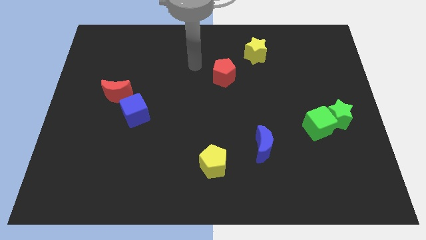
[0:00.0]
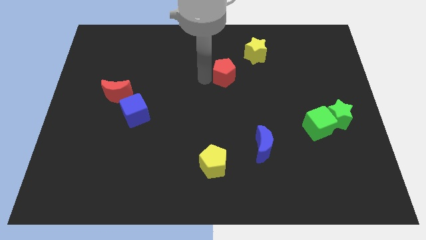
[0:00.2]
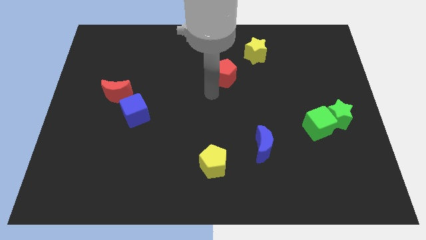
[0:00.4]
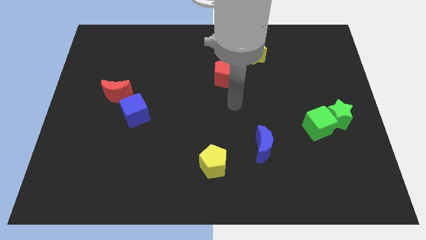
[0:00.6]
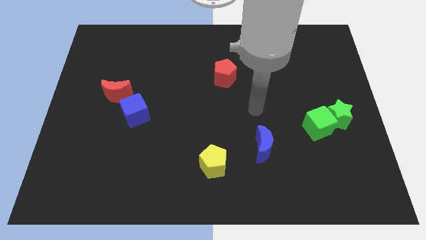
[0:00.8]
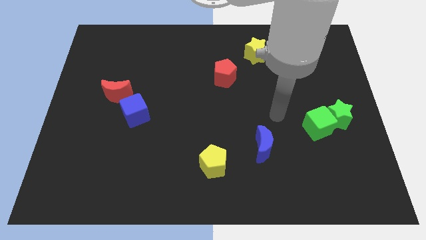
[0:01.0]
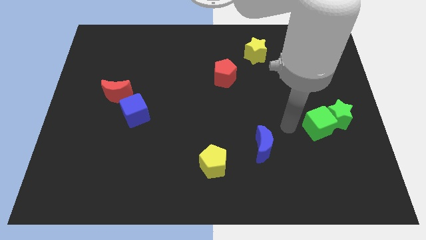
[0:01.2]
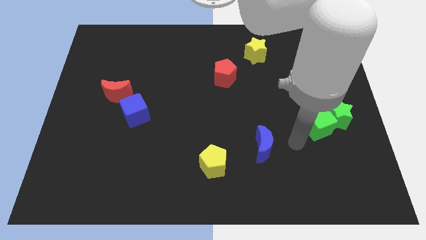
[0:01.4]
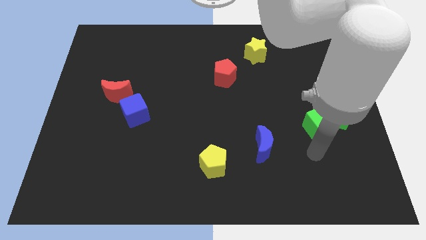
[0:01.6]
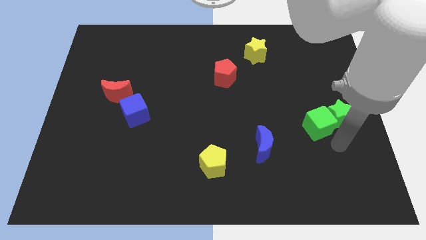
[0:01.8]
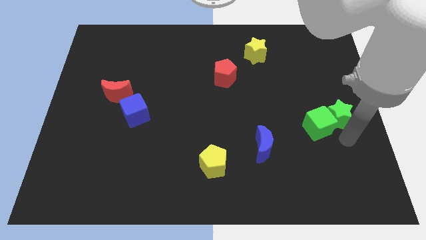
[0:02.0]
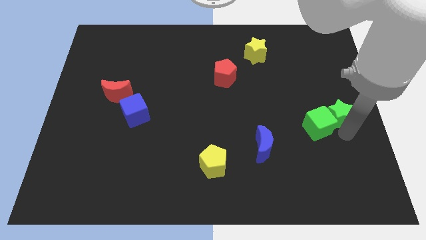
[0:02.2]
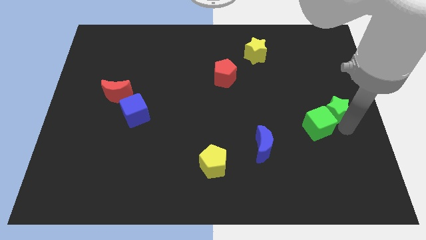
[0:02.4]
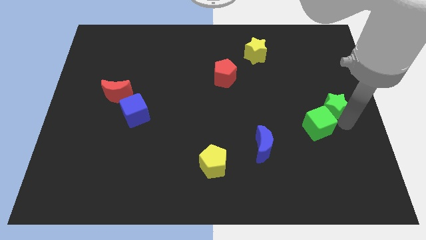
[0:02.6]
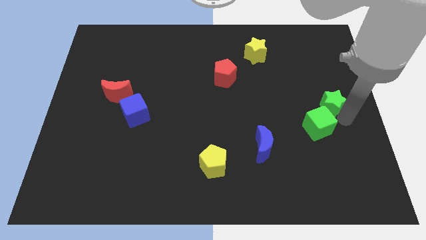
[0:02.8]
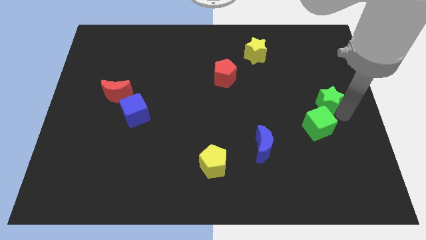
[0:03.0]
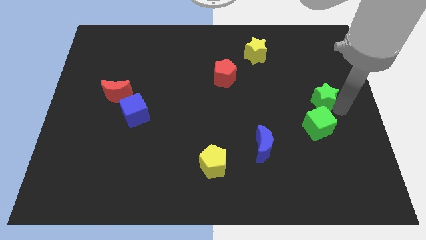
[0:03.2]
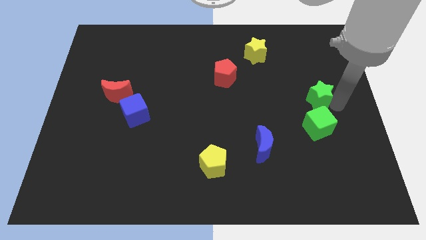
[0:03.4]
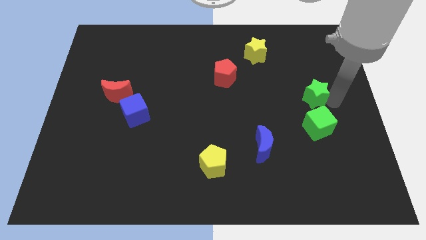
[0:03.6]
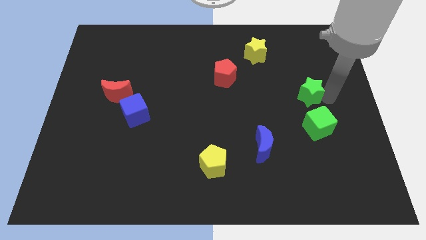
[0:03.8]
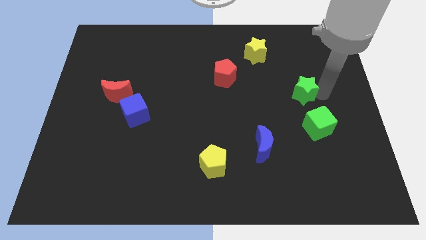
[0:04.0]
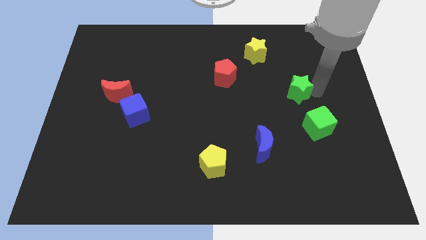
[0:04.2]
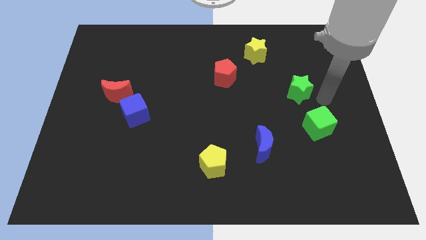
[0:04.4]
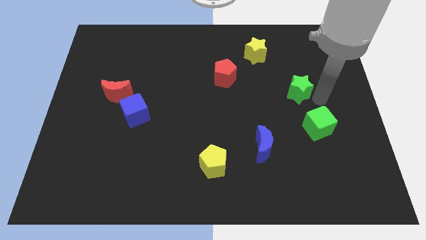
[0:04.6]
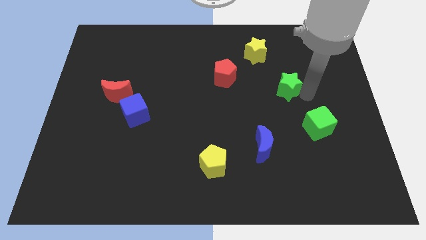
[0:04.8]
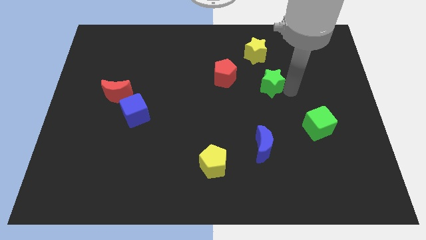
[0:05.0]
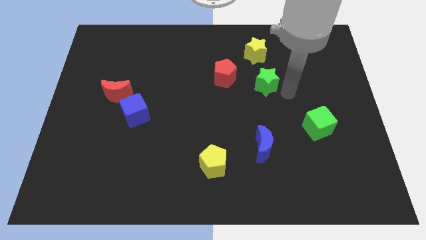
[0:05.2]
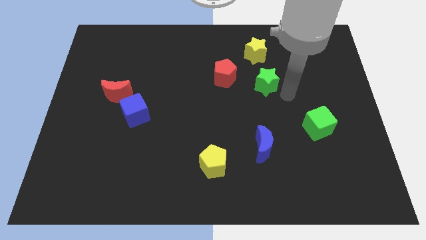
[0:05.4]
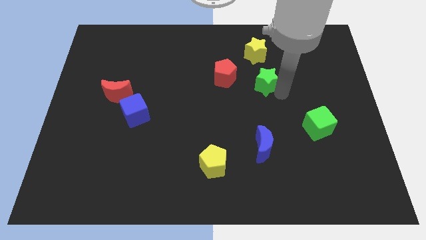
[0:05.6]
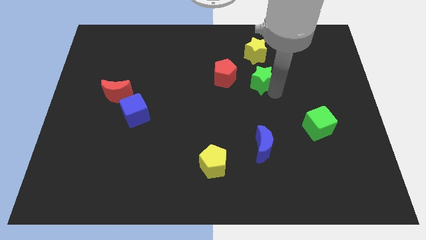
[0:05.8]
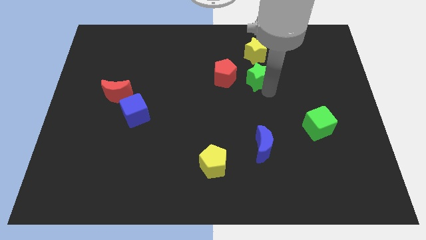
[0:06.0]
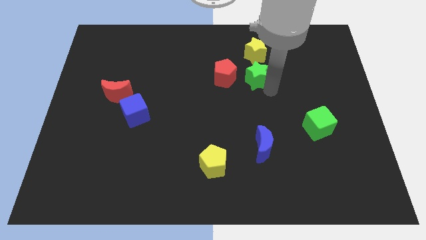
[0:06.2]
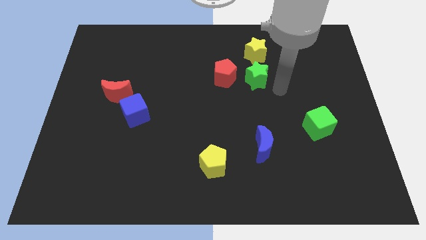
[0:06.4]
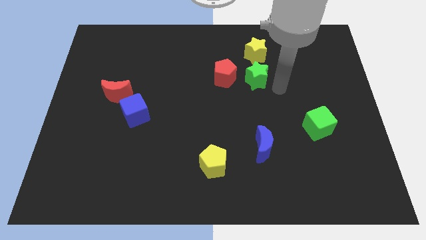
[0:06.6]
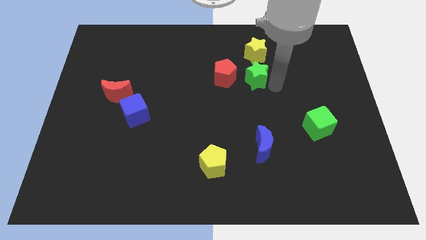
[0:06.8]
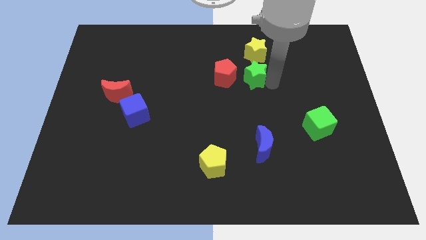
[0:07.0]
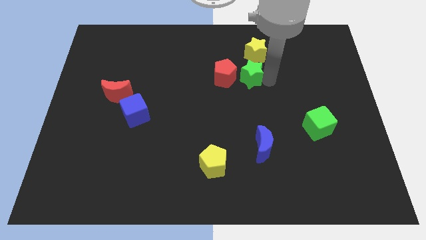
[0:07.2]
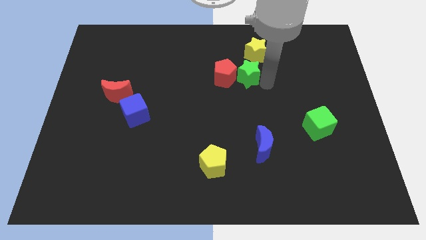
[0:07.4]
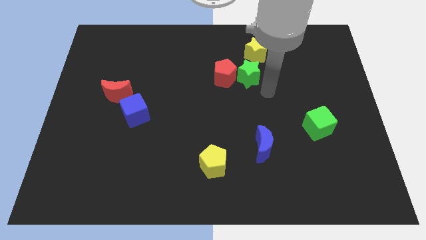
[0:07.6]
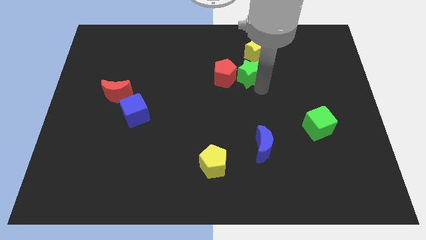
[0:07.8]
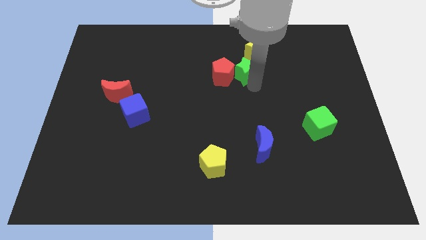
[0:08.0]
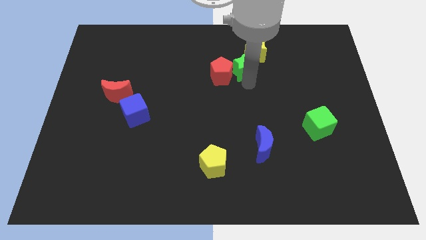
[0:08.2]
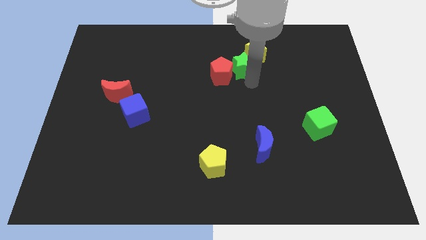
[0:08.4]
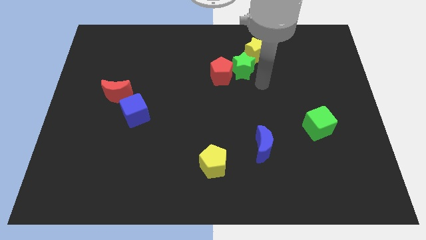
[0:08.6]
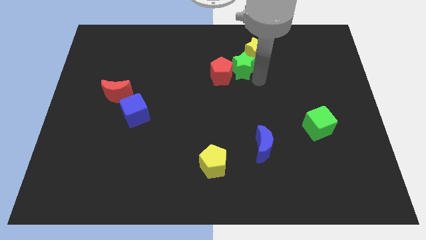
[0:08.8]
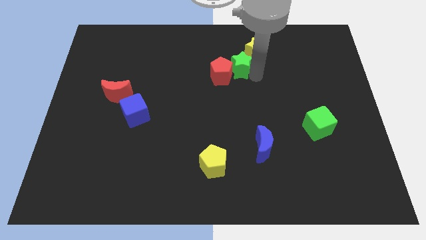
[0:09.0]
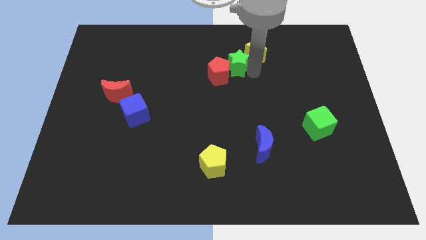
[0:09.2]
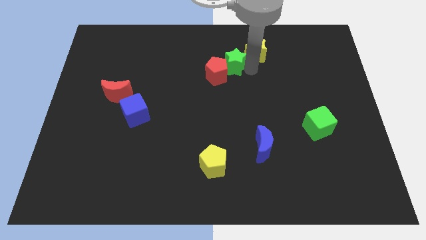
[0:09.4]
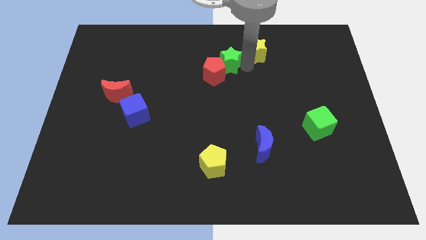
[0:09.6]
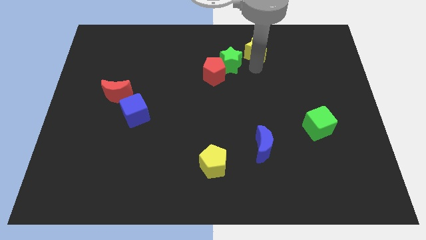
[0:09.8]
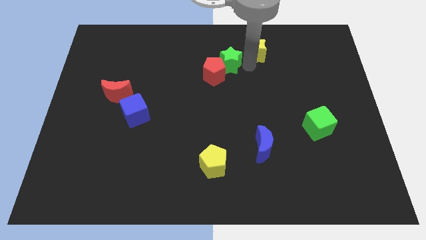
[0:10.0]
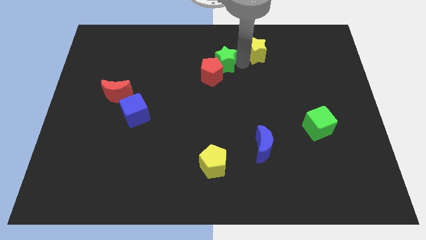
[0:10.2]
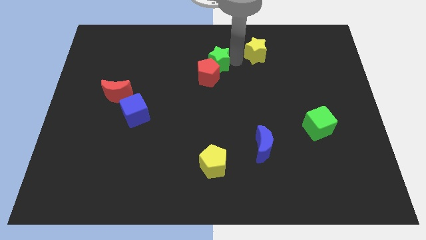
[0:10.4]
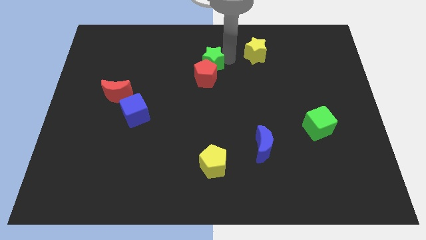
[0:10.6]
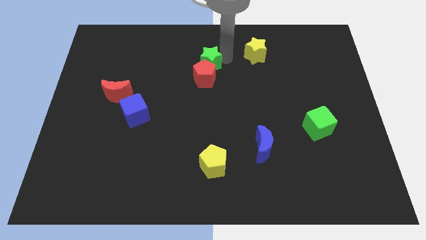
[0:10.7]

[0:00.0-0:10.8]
put the green star to the top left of the red pentagon

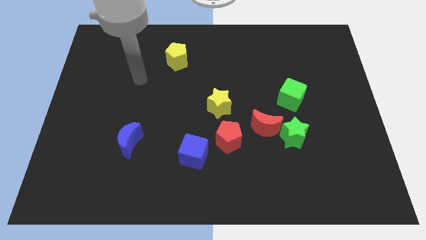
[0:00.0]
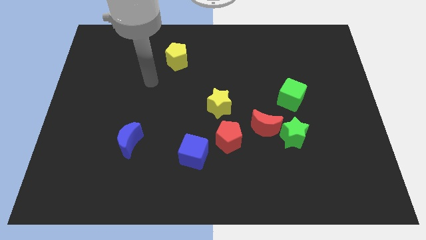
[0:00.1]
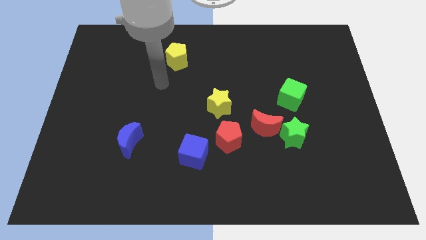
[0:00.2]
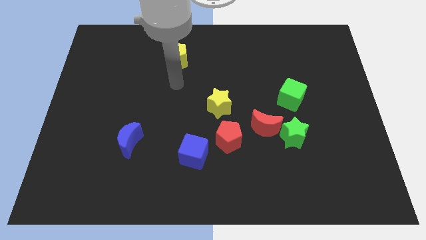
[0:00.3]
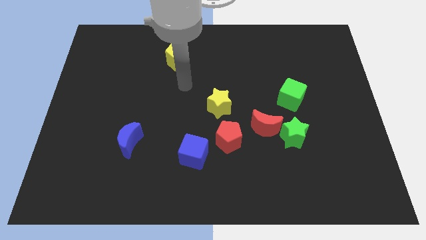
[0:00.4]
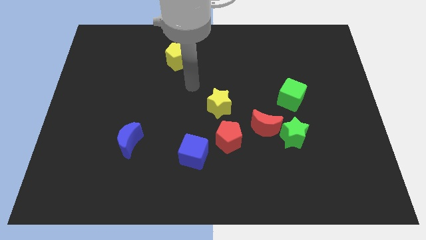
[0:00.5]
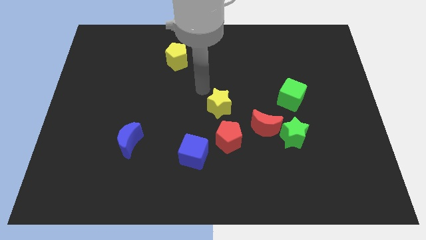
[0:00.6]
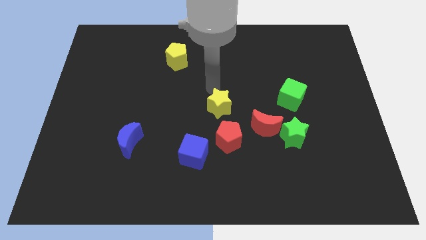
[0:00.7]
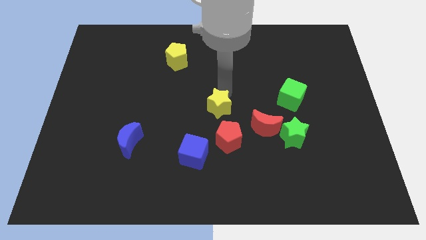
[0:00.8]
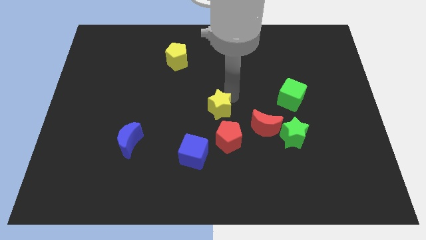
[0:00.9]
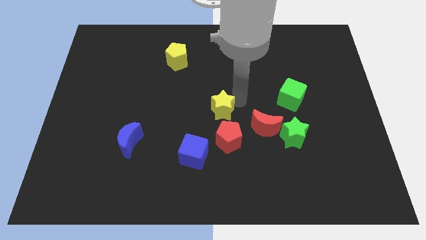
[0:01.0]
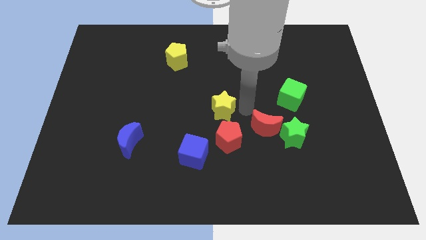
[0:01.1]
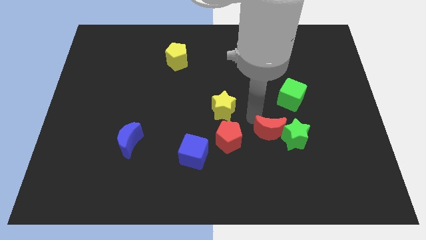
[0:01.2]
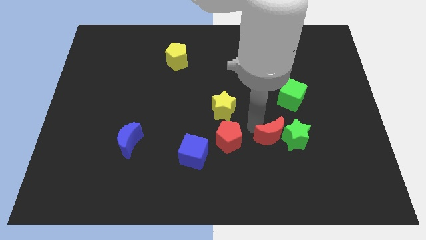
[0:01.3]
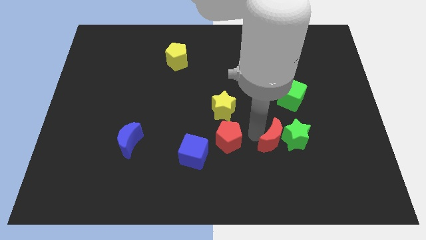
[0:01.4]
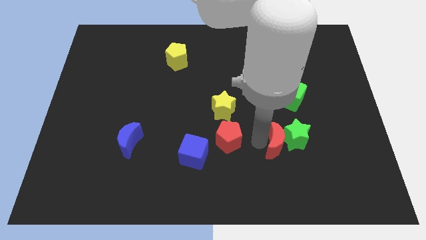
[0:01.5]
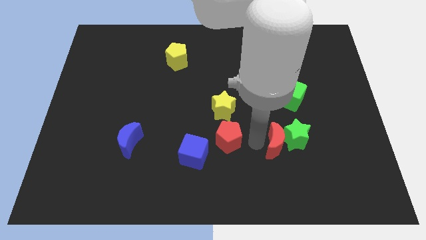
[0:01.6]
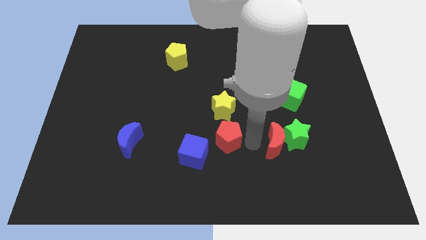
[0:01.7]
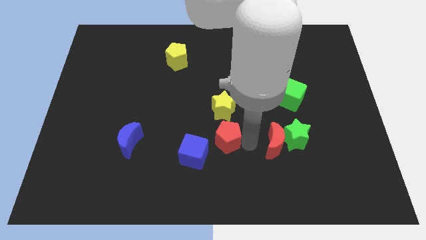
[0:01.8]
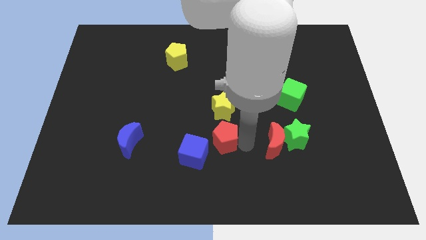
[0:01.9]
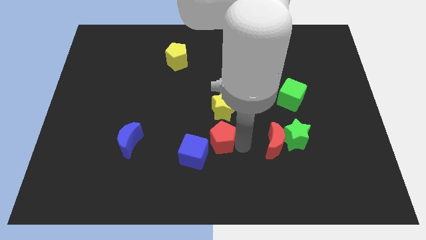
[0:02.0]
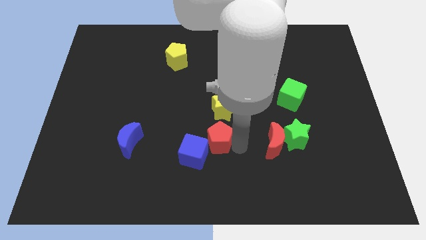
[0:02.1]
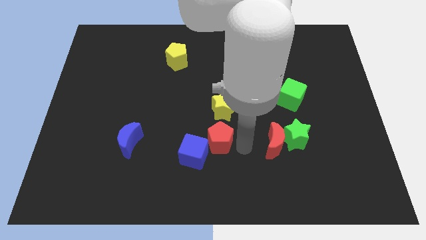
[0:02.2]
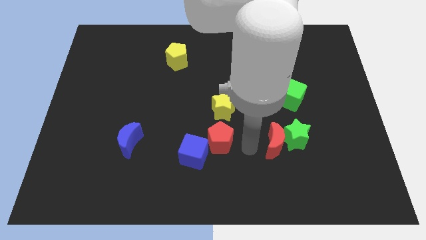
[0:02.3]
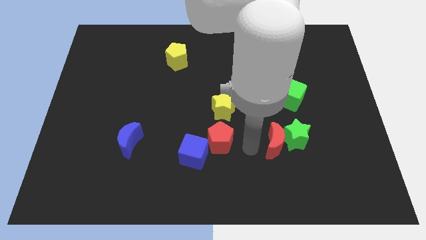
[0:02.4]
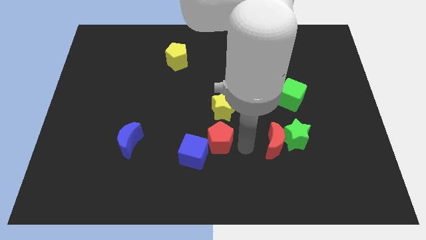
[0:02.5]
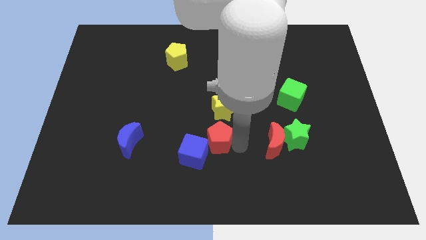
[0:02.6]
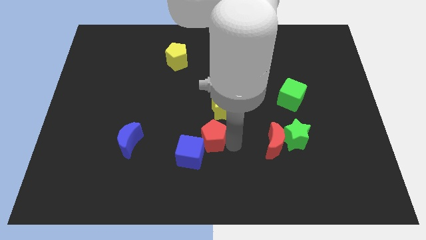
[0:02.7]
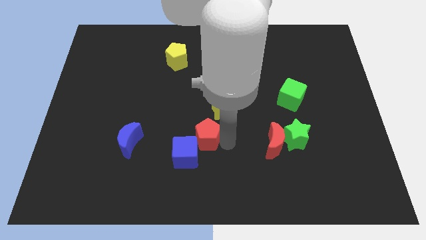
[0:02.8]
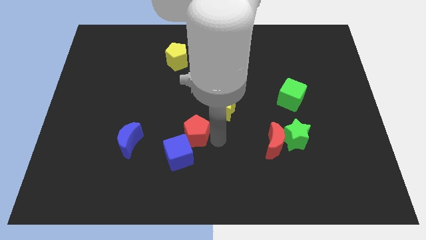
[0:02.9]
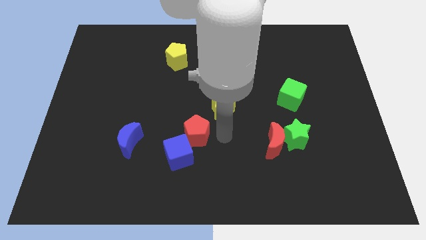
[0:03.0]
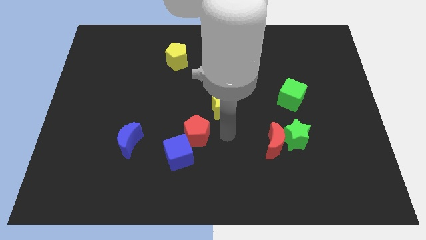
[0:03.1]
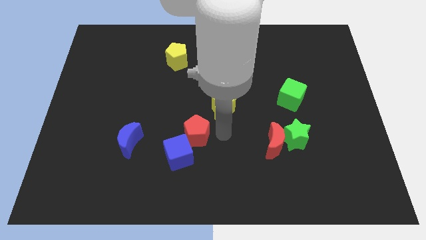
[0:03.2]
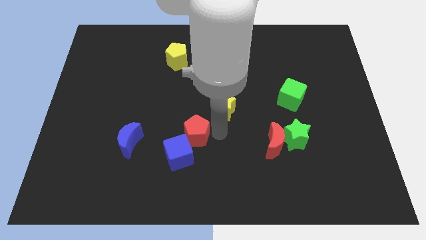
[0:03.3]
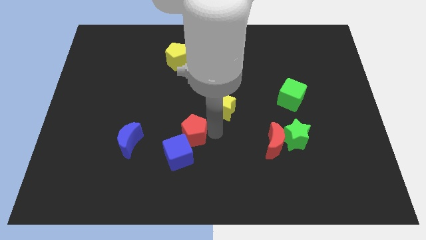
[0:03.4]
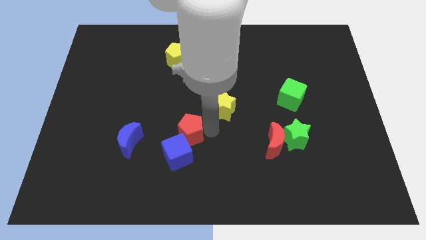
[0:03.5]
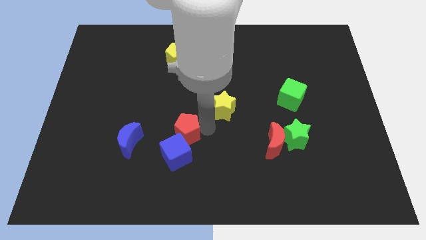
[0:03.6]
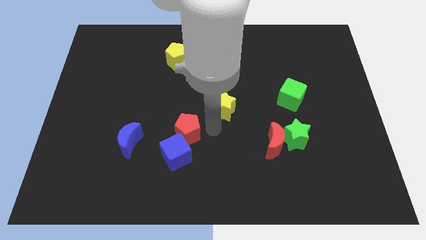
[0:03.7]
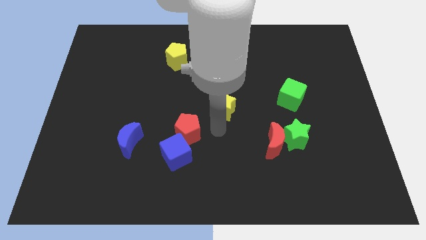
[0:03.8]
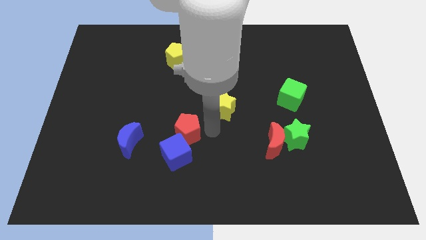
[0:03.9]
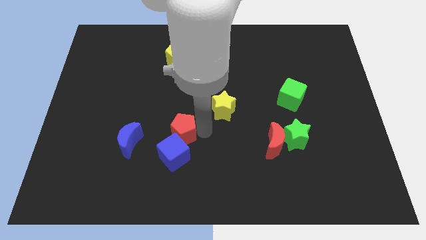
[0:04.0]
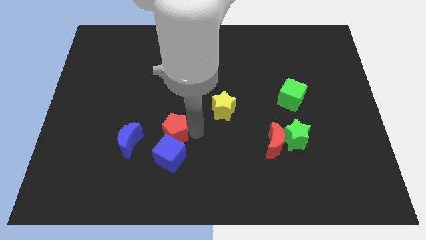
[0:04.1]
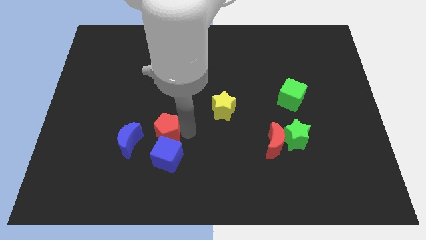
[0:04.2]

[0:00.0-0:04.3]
put the red pentagon to the top left of the blue cube
